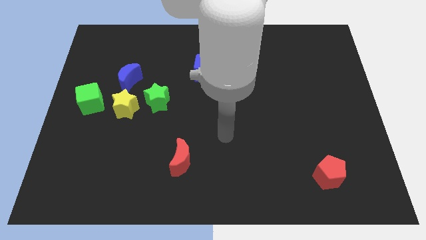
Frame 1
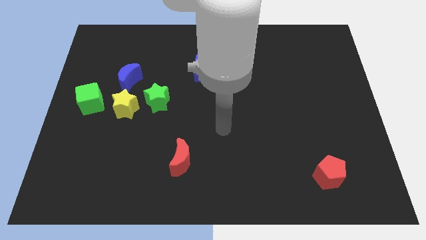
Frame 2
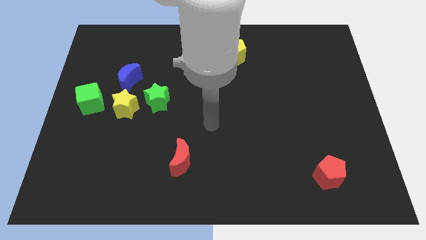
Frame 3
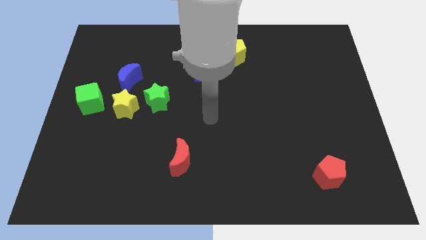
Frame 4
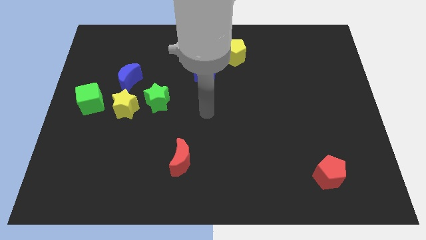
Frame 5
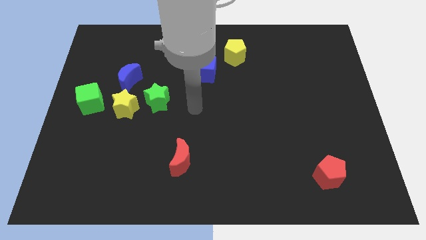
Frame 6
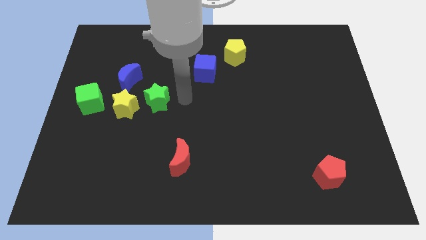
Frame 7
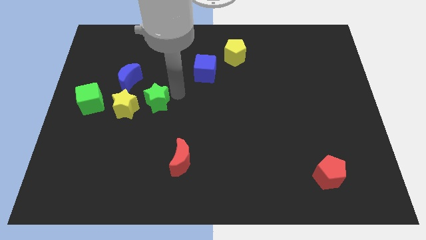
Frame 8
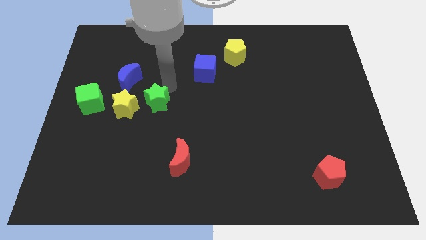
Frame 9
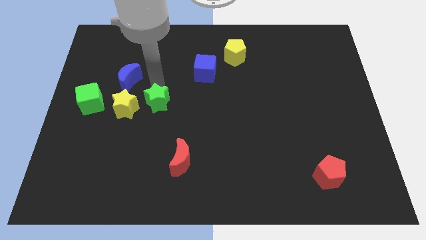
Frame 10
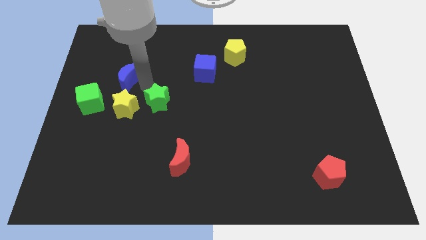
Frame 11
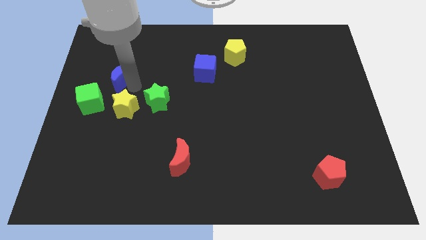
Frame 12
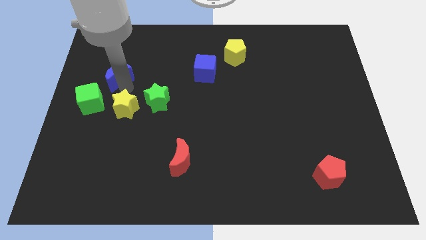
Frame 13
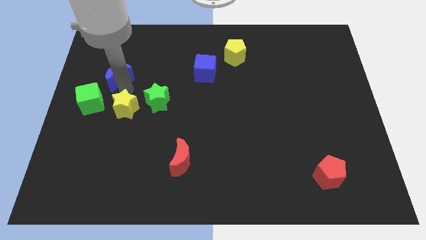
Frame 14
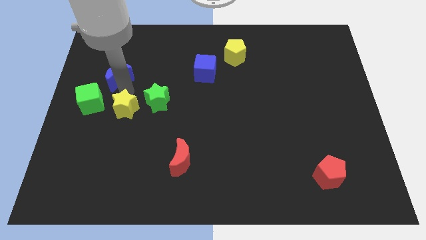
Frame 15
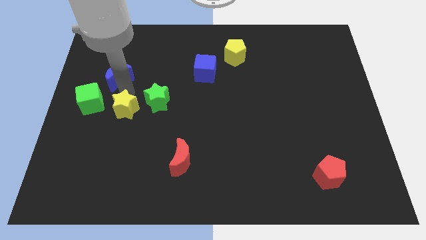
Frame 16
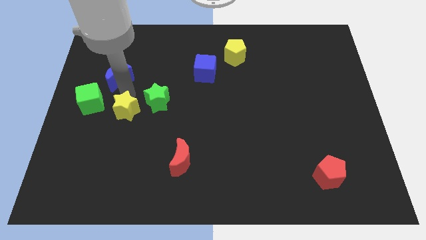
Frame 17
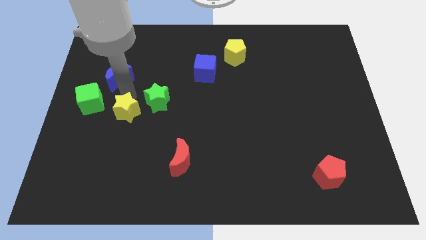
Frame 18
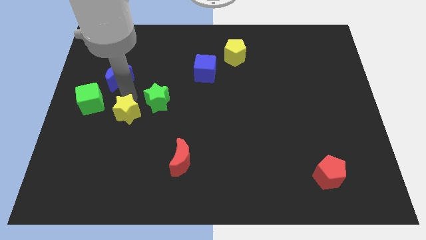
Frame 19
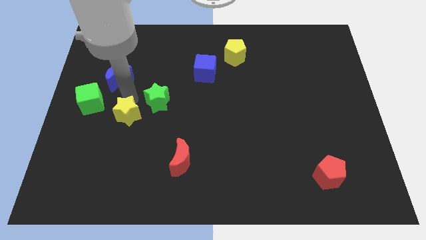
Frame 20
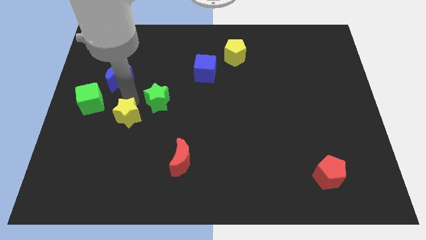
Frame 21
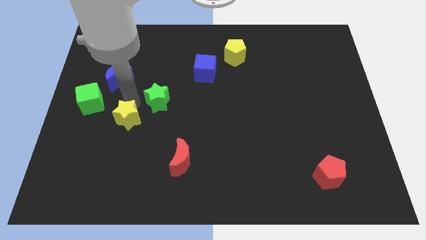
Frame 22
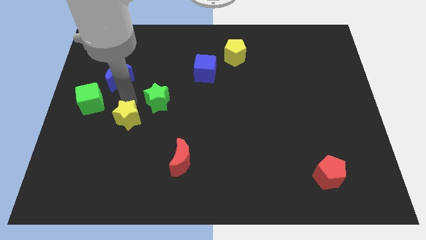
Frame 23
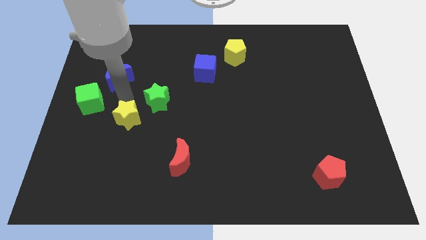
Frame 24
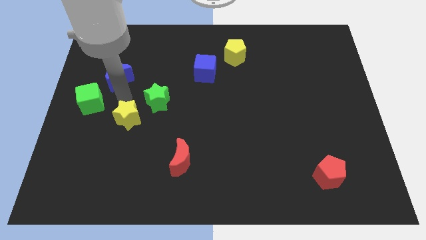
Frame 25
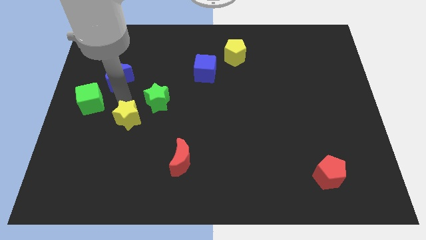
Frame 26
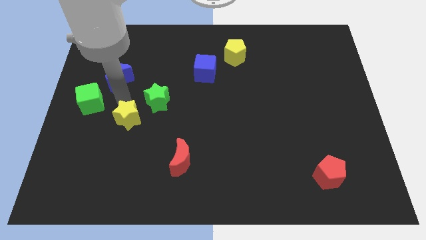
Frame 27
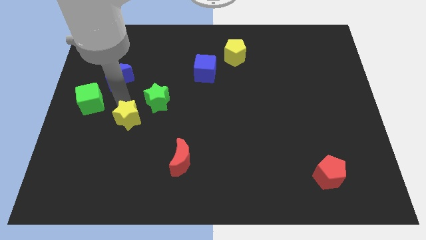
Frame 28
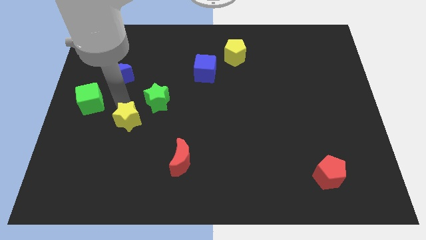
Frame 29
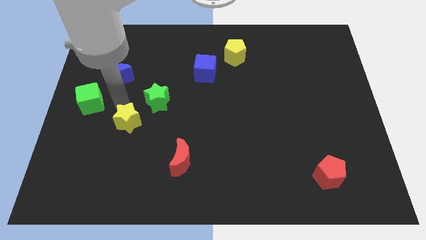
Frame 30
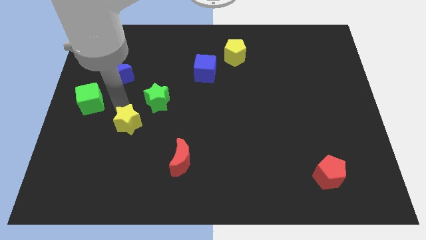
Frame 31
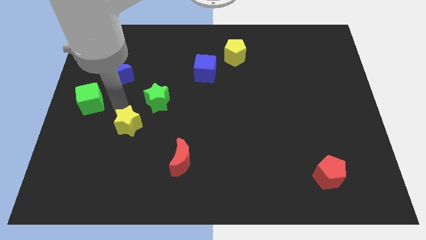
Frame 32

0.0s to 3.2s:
pull the yellow star apart from the group of blocks

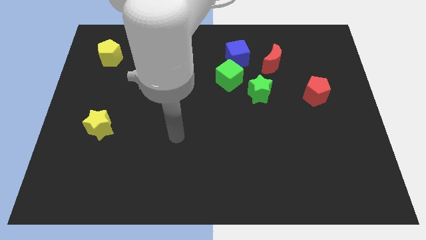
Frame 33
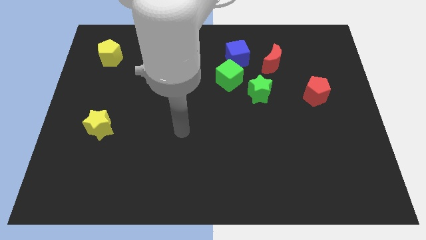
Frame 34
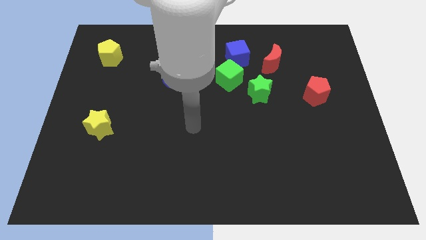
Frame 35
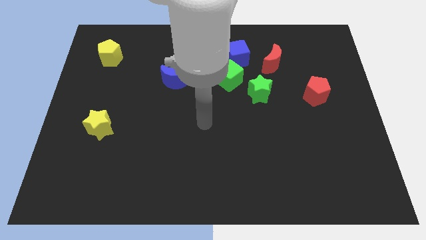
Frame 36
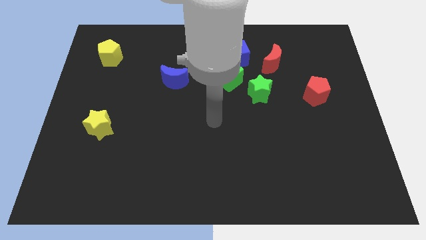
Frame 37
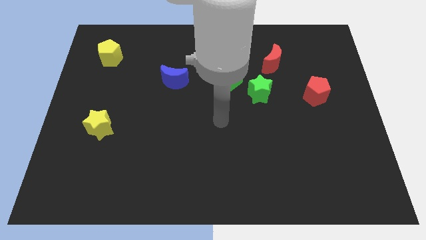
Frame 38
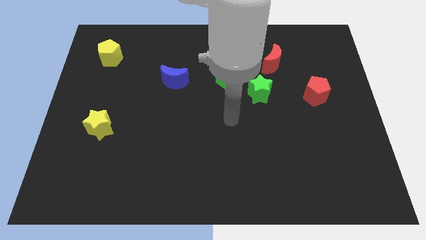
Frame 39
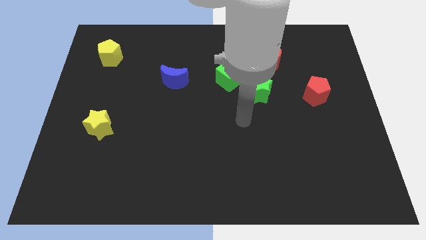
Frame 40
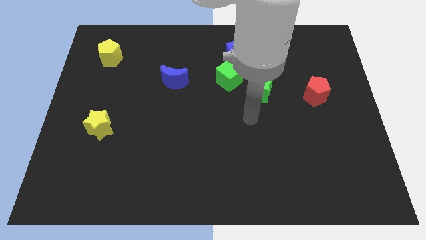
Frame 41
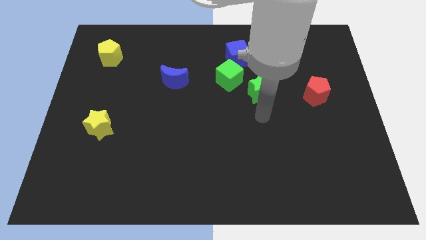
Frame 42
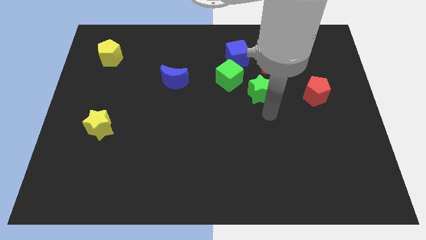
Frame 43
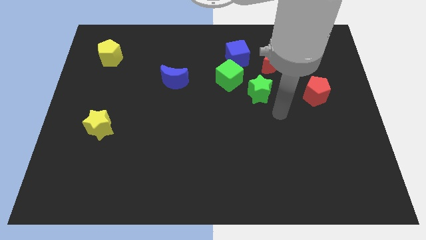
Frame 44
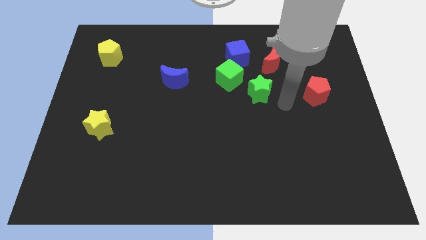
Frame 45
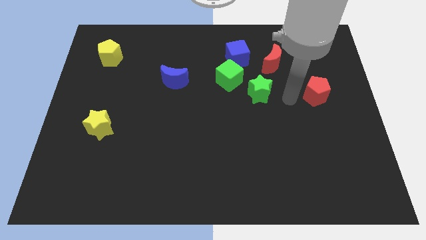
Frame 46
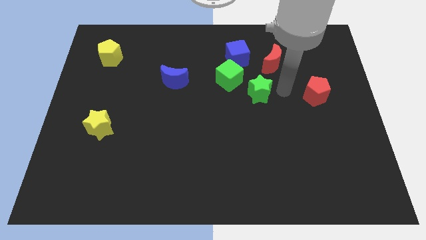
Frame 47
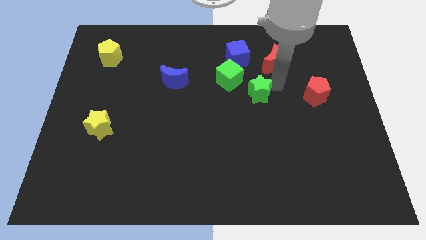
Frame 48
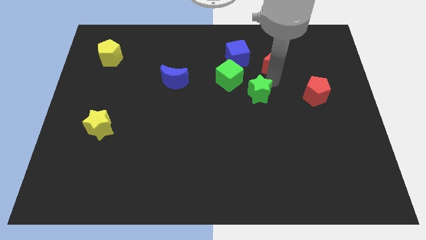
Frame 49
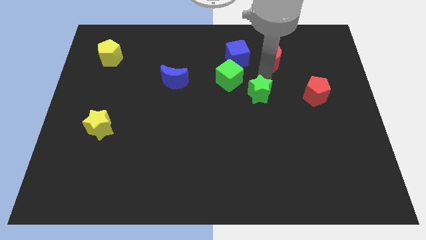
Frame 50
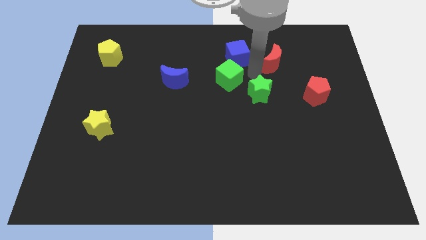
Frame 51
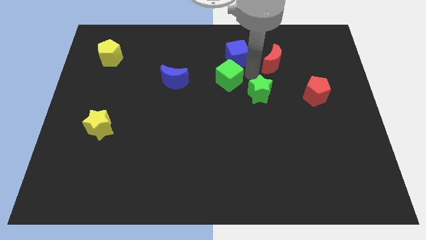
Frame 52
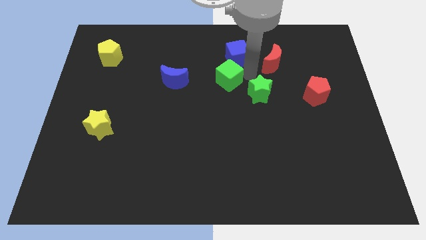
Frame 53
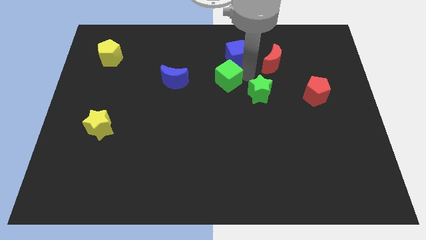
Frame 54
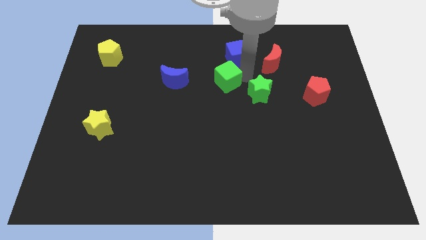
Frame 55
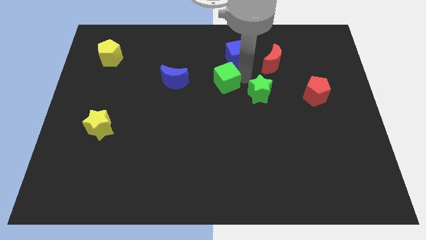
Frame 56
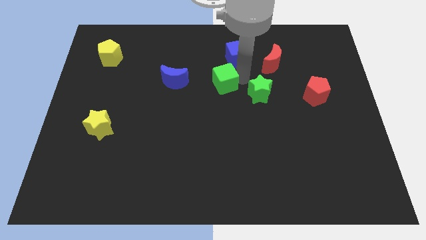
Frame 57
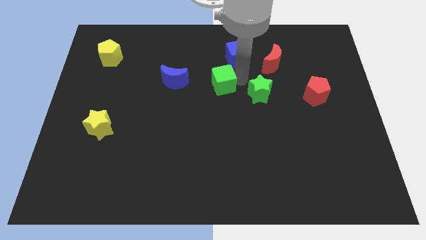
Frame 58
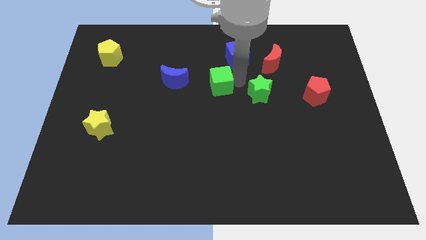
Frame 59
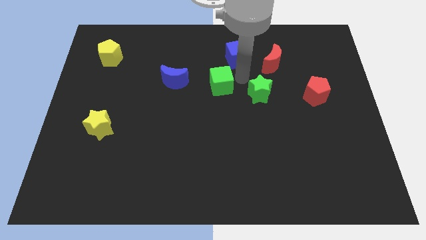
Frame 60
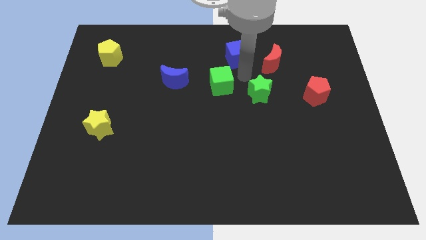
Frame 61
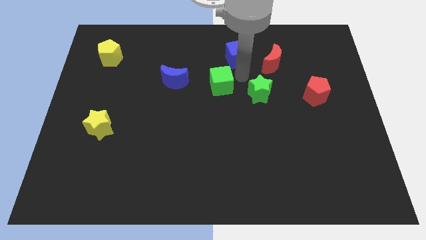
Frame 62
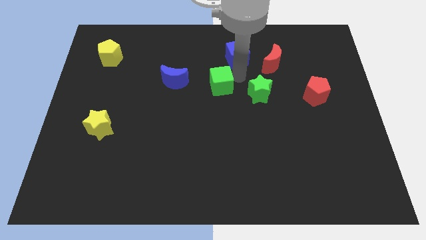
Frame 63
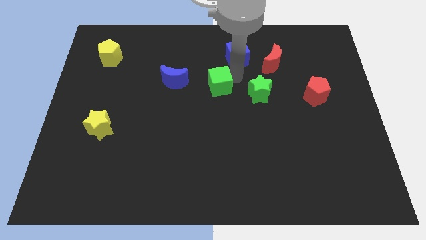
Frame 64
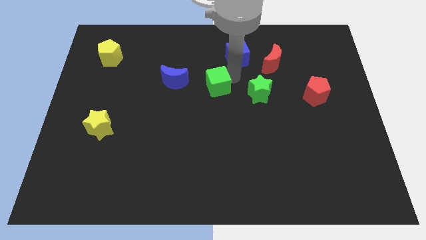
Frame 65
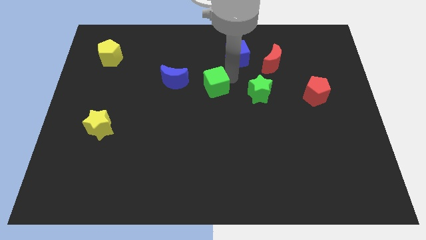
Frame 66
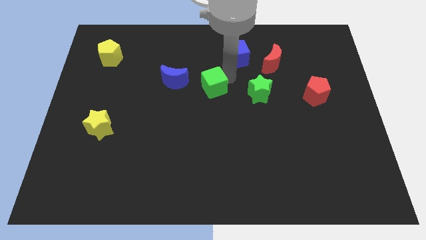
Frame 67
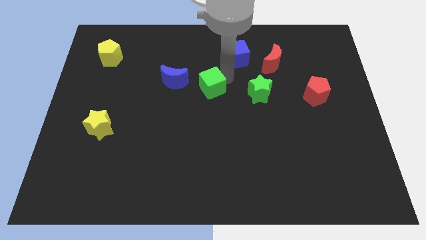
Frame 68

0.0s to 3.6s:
separate the green cube from the blue cube and green star

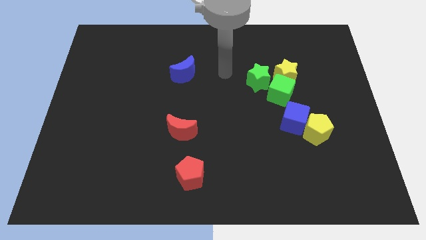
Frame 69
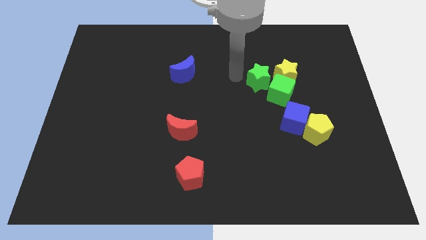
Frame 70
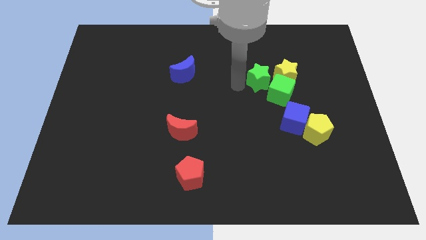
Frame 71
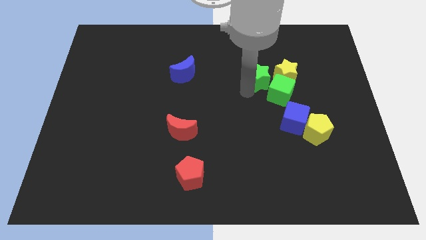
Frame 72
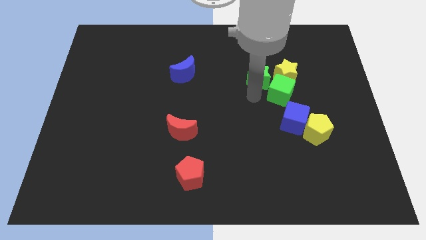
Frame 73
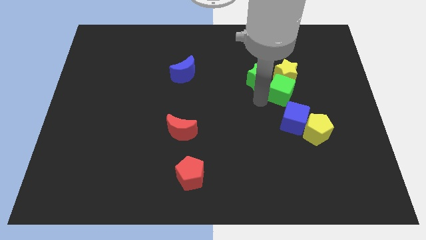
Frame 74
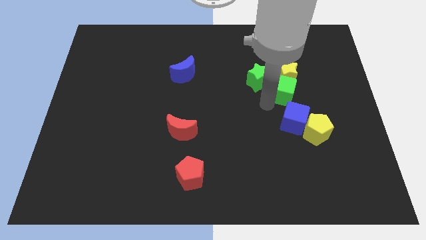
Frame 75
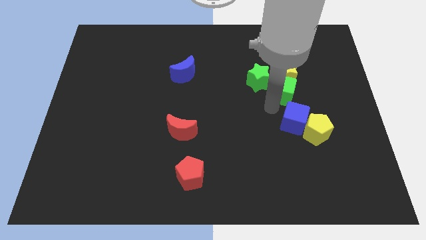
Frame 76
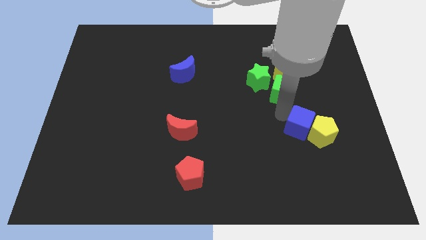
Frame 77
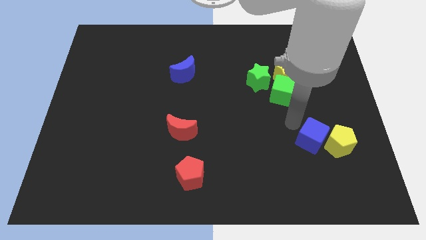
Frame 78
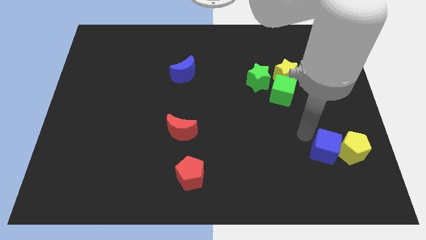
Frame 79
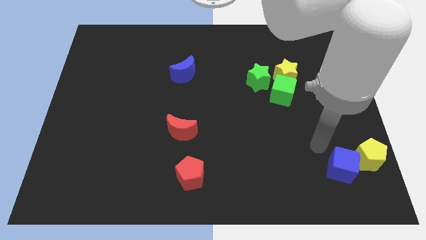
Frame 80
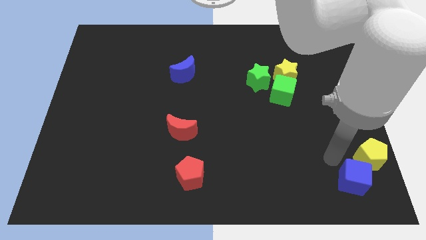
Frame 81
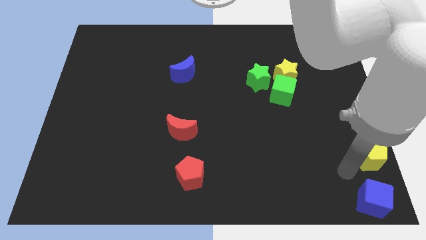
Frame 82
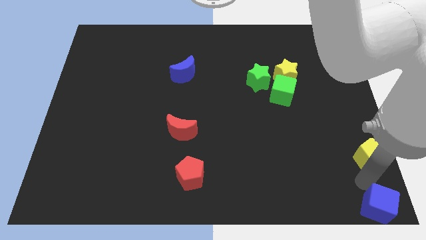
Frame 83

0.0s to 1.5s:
move the yellow pentagon away from the blue cube

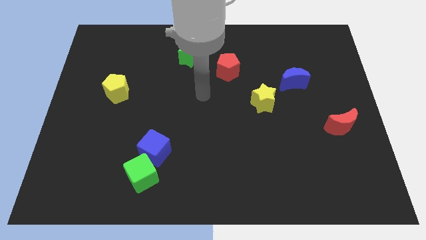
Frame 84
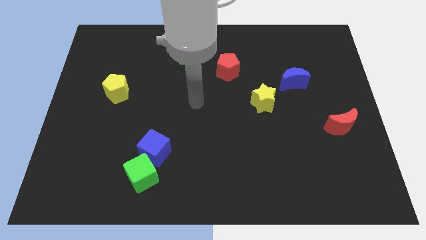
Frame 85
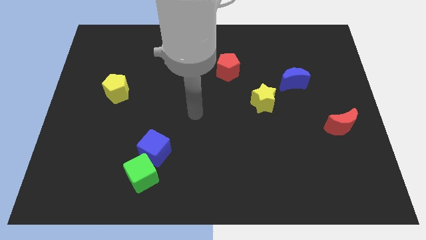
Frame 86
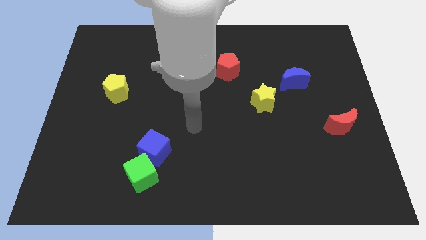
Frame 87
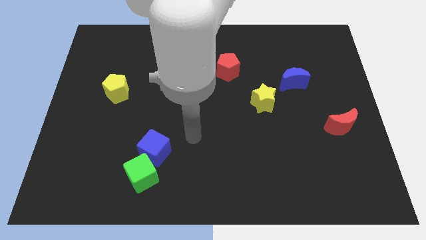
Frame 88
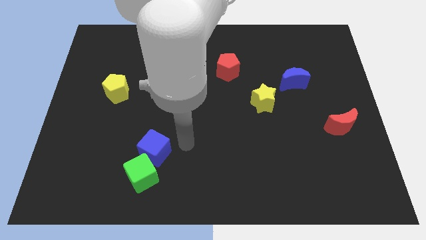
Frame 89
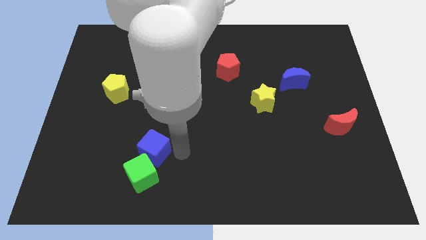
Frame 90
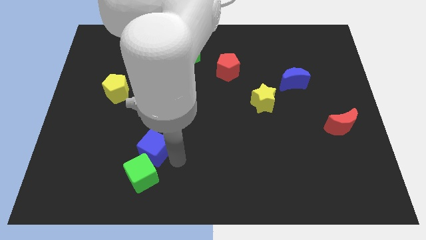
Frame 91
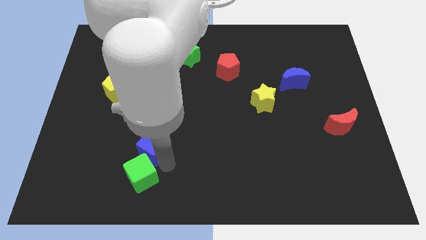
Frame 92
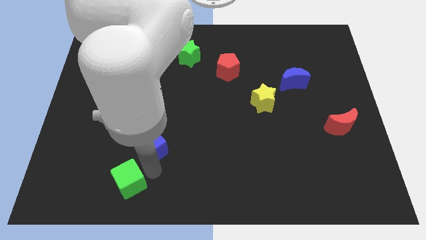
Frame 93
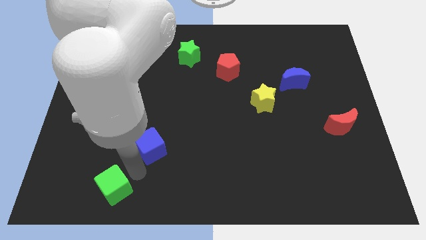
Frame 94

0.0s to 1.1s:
pull the blue cube apart from the green cube
